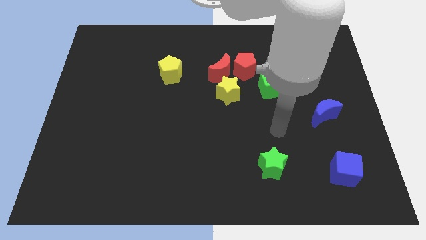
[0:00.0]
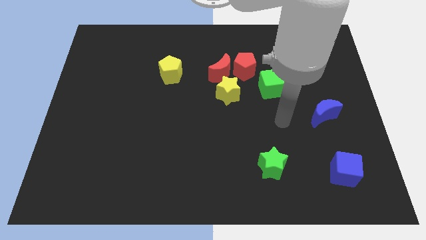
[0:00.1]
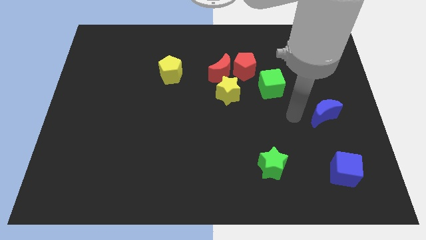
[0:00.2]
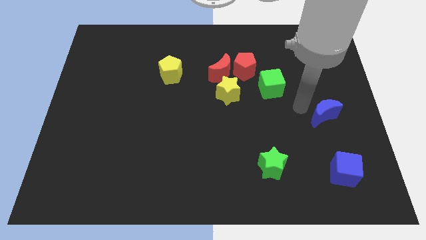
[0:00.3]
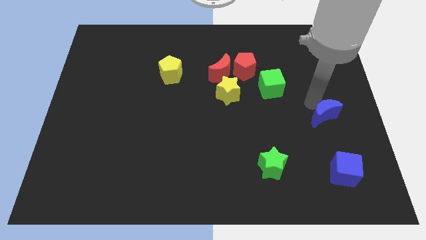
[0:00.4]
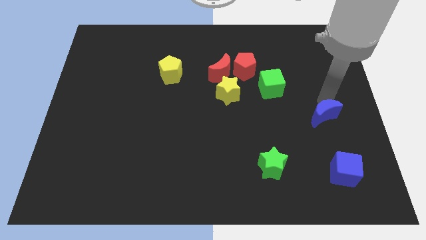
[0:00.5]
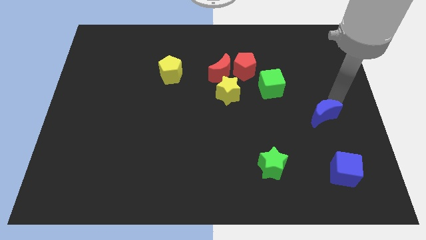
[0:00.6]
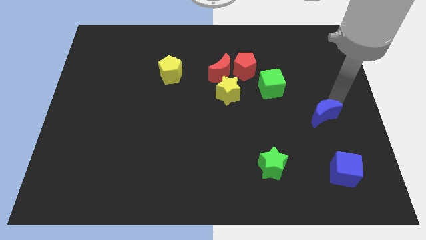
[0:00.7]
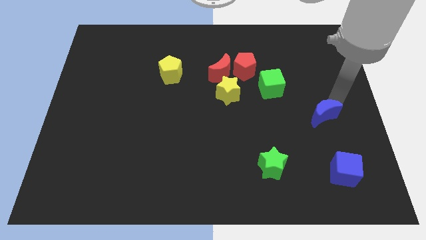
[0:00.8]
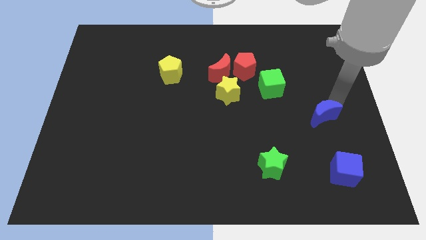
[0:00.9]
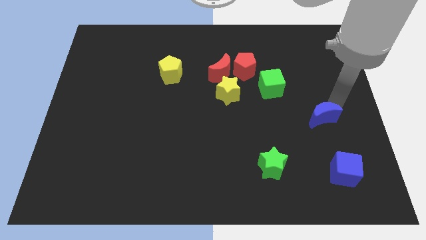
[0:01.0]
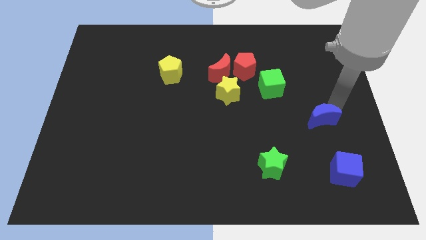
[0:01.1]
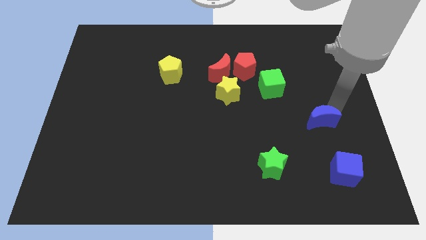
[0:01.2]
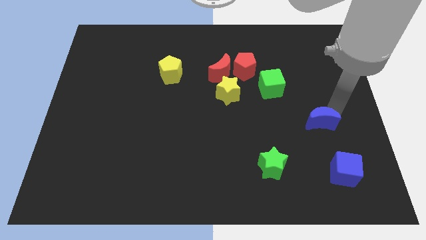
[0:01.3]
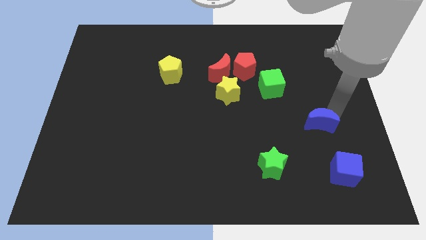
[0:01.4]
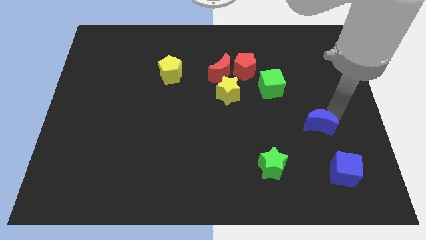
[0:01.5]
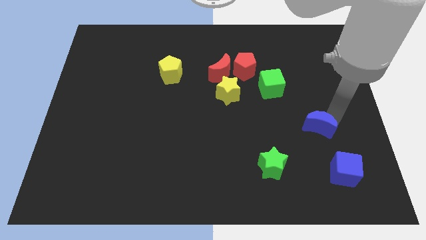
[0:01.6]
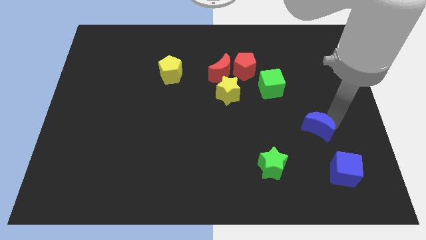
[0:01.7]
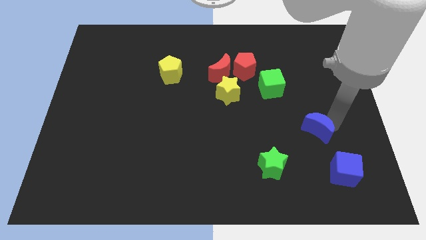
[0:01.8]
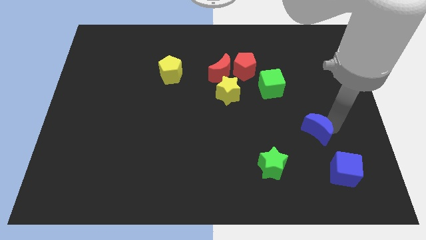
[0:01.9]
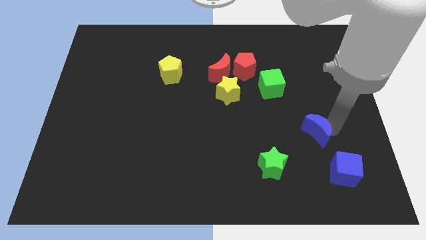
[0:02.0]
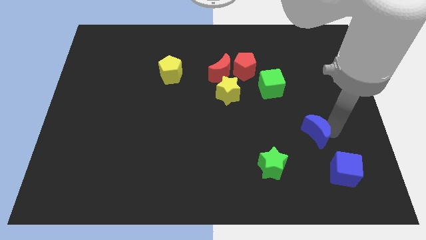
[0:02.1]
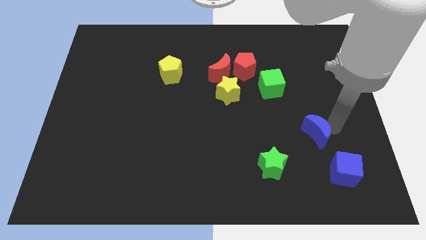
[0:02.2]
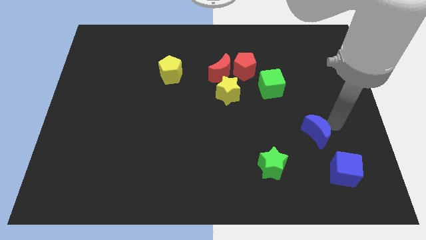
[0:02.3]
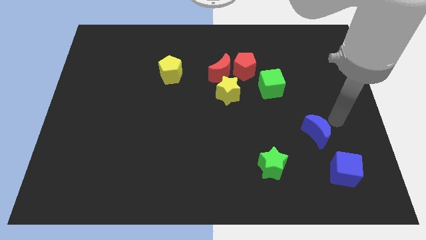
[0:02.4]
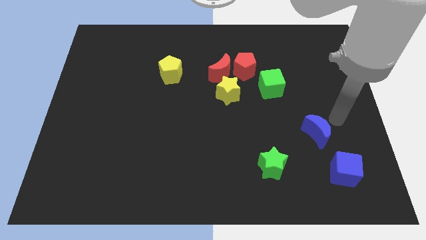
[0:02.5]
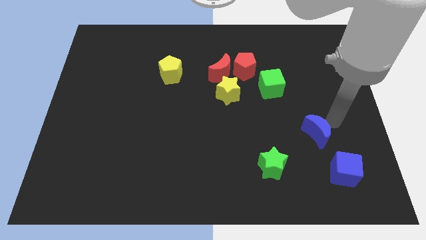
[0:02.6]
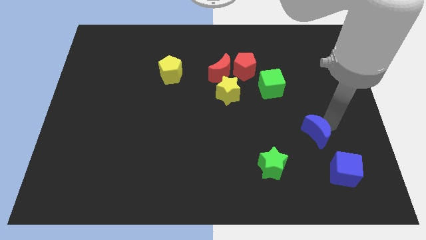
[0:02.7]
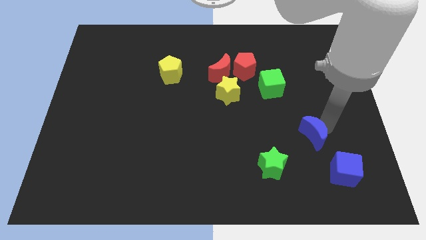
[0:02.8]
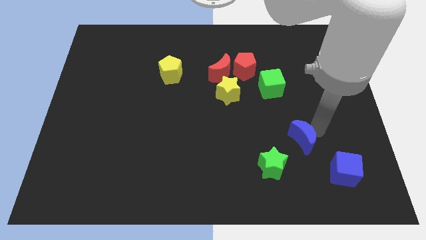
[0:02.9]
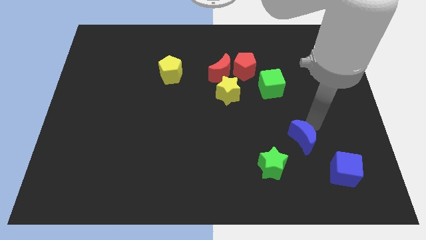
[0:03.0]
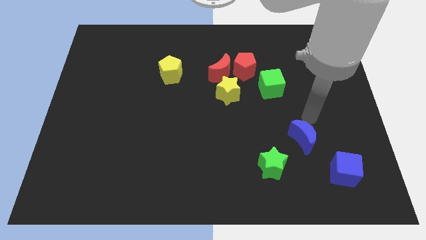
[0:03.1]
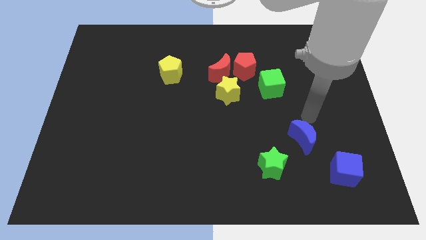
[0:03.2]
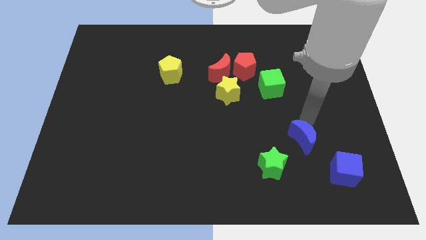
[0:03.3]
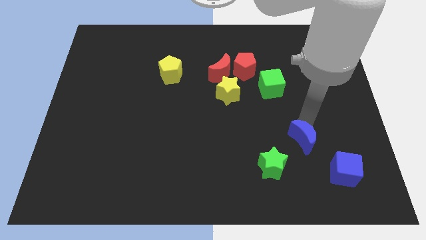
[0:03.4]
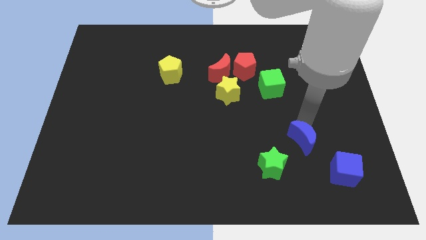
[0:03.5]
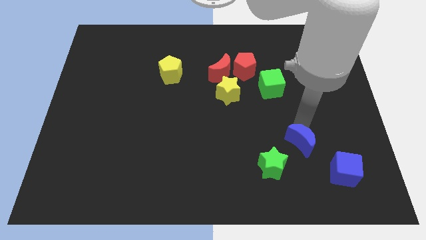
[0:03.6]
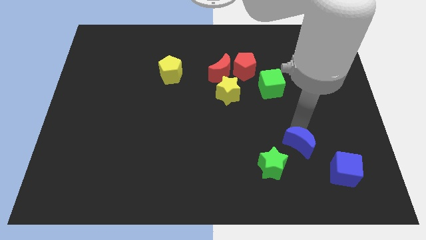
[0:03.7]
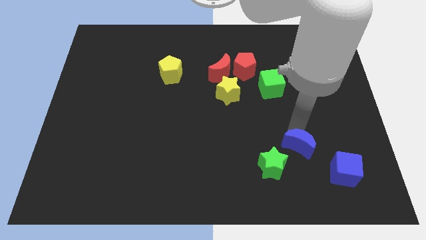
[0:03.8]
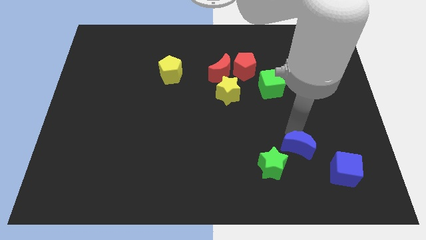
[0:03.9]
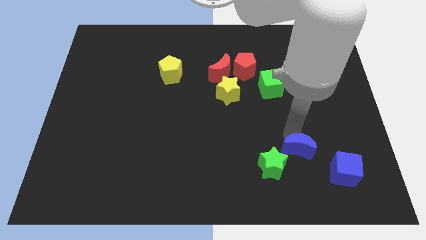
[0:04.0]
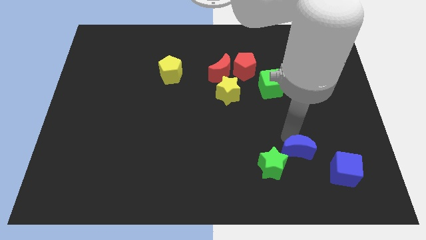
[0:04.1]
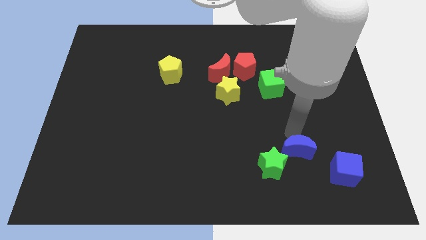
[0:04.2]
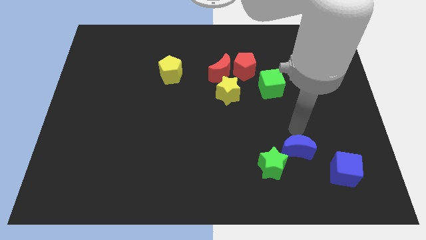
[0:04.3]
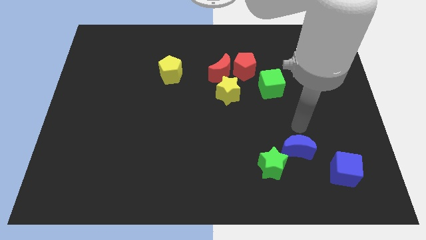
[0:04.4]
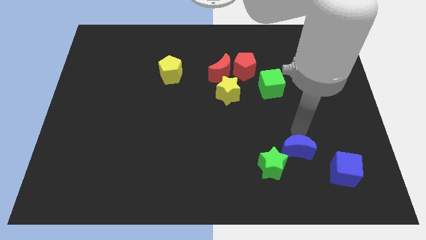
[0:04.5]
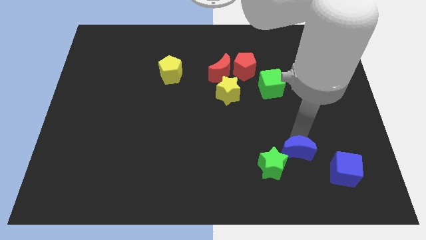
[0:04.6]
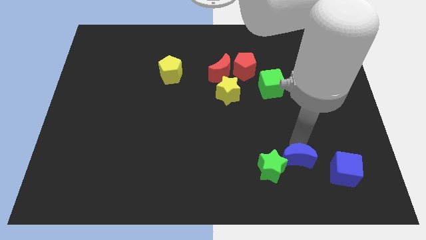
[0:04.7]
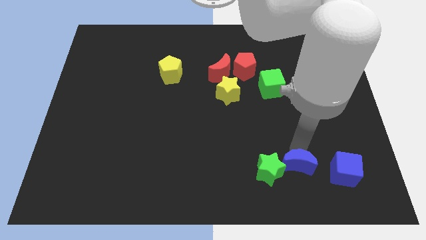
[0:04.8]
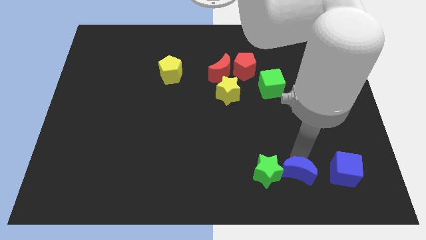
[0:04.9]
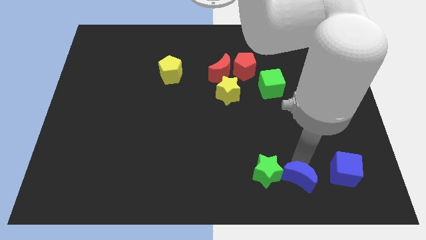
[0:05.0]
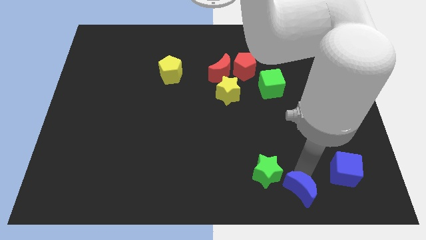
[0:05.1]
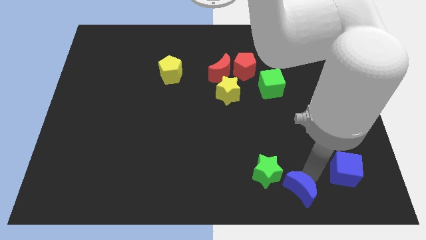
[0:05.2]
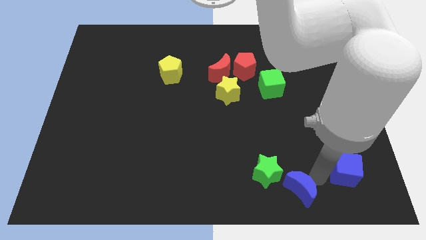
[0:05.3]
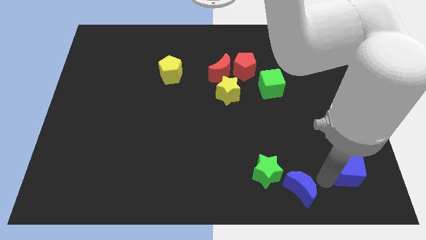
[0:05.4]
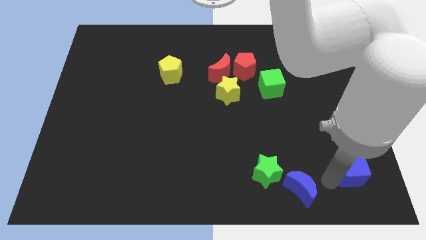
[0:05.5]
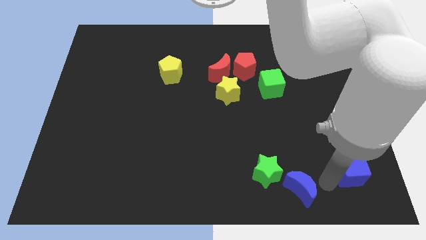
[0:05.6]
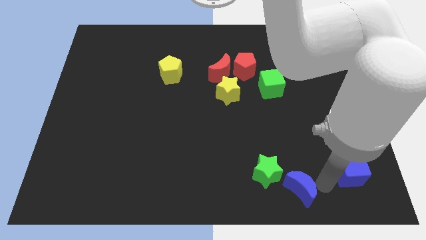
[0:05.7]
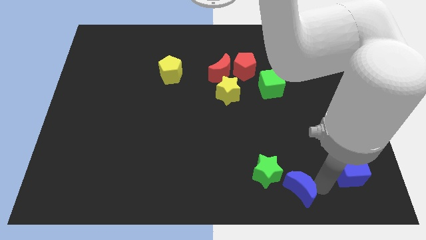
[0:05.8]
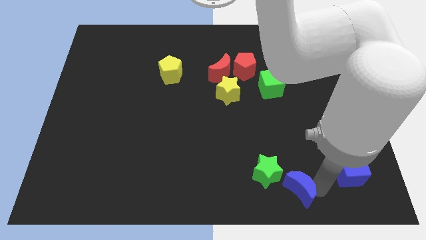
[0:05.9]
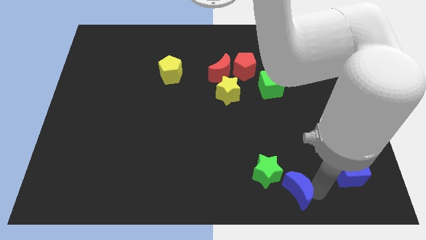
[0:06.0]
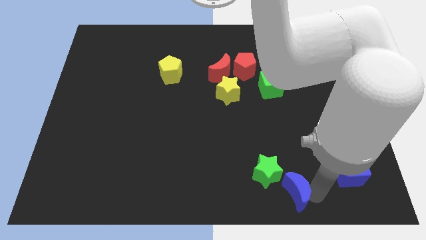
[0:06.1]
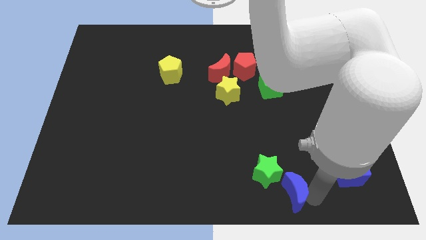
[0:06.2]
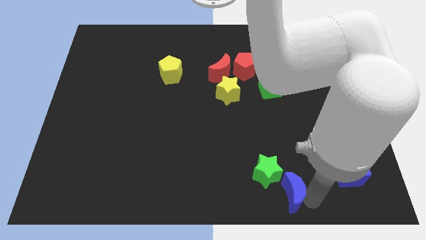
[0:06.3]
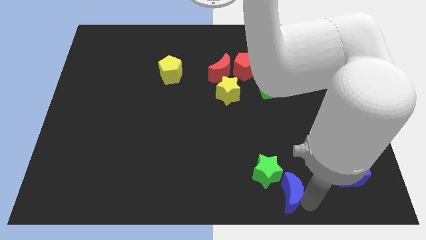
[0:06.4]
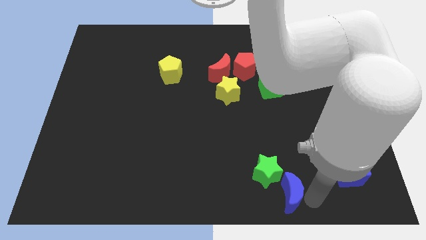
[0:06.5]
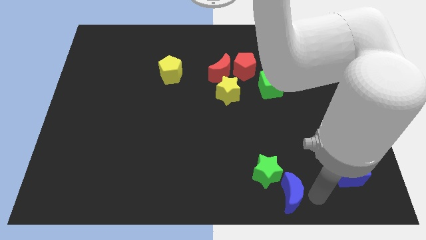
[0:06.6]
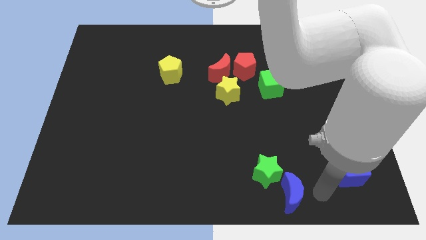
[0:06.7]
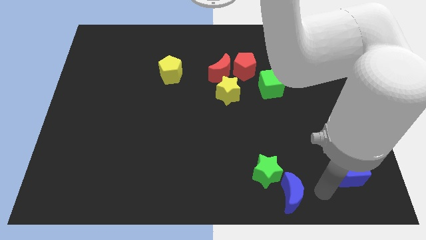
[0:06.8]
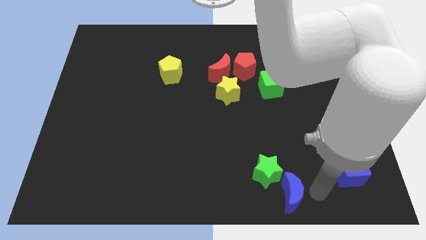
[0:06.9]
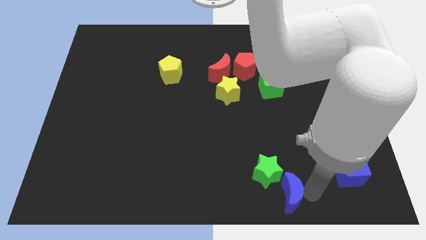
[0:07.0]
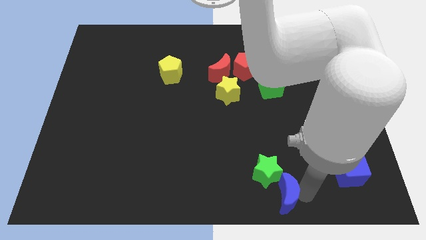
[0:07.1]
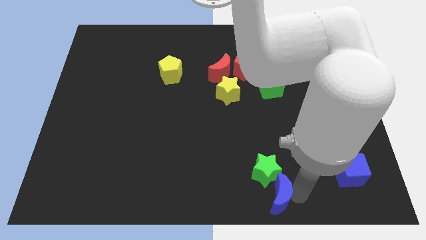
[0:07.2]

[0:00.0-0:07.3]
put the blue moon to the bottom
